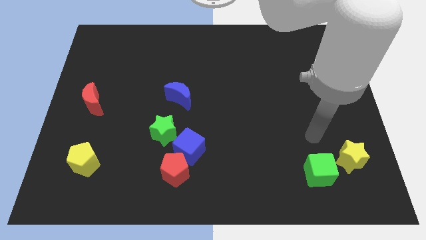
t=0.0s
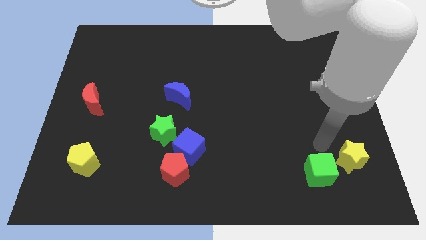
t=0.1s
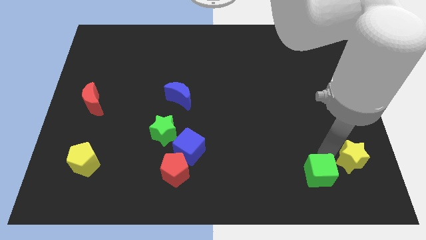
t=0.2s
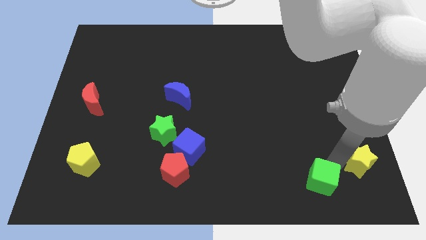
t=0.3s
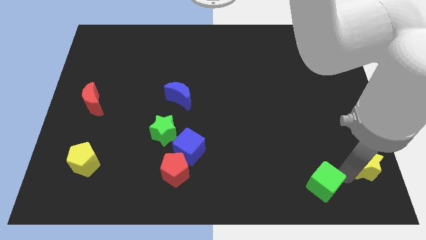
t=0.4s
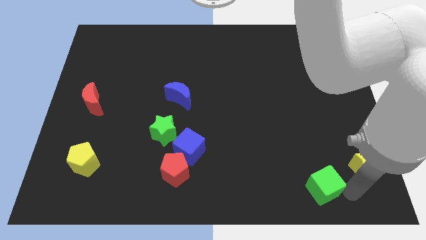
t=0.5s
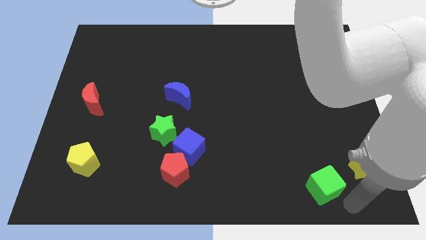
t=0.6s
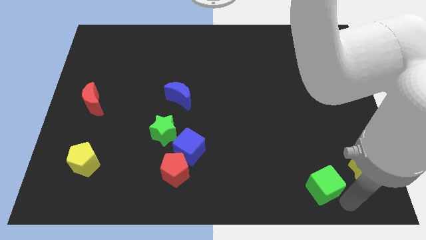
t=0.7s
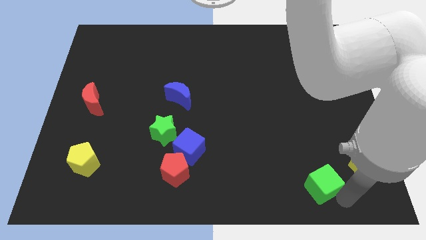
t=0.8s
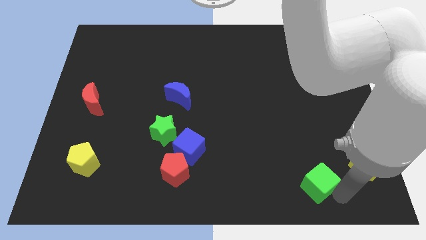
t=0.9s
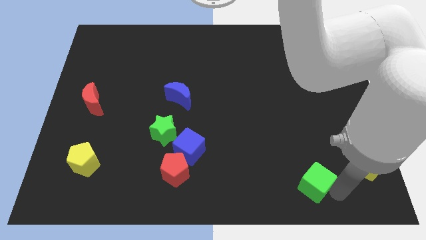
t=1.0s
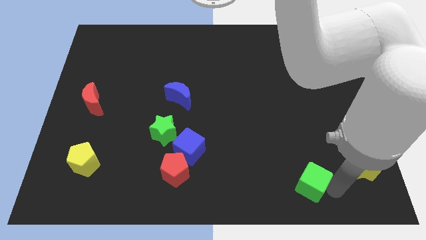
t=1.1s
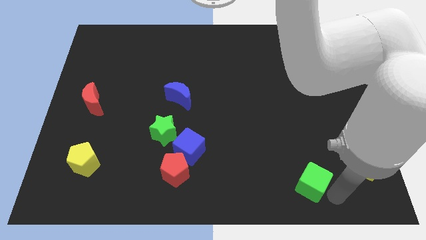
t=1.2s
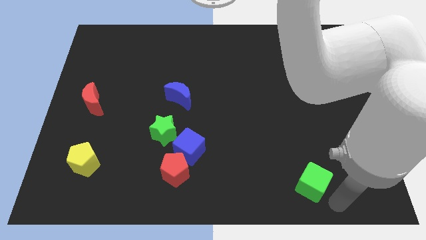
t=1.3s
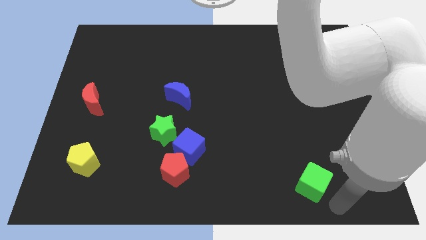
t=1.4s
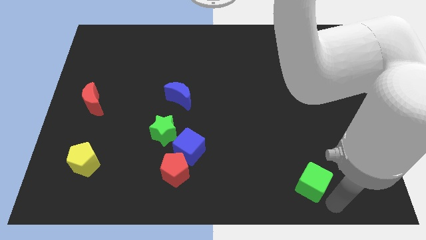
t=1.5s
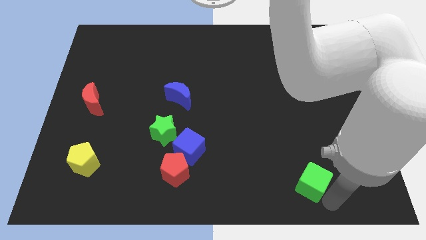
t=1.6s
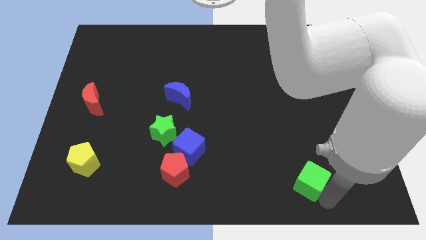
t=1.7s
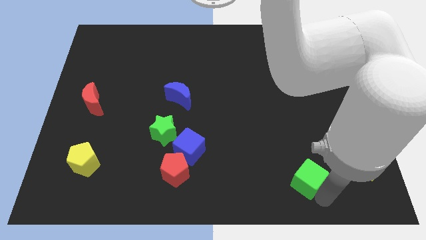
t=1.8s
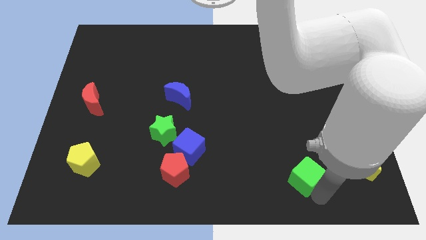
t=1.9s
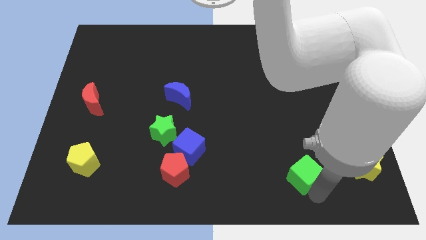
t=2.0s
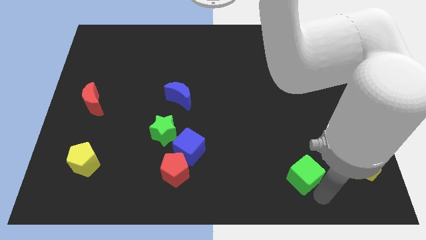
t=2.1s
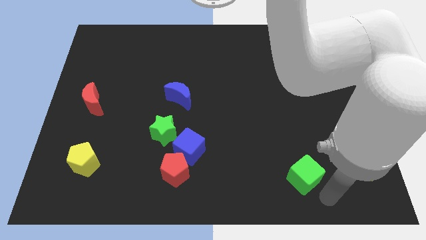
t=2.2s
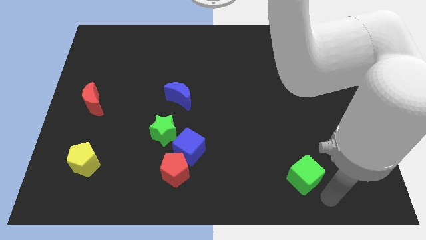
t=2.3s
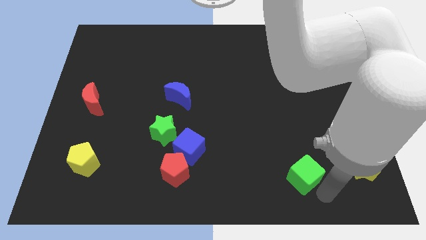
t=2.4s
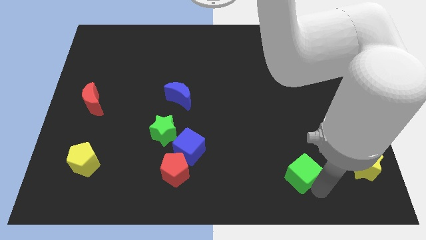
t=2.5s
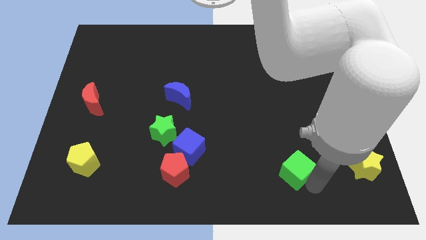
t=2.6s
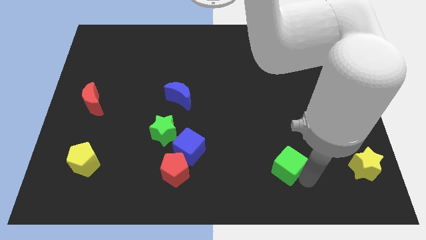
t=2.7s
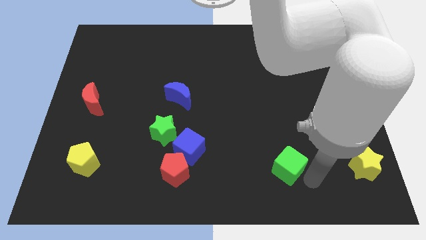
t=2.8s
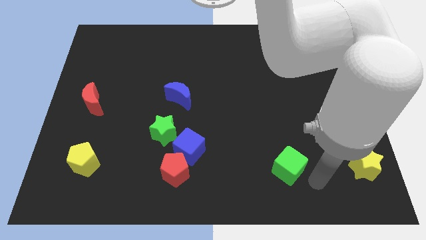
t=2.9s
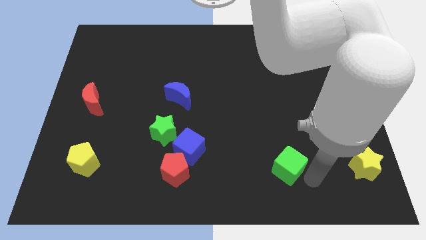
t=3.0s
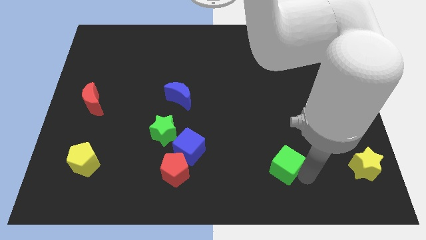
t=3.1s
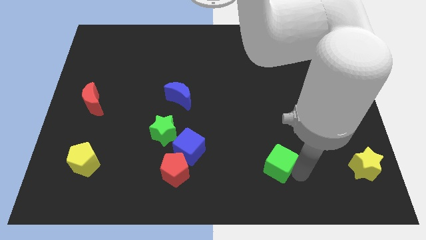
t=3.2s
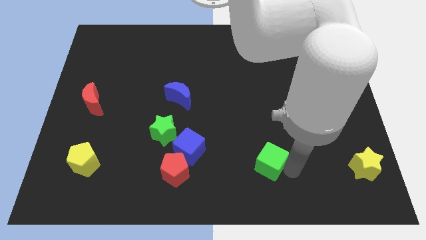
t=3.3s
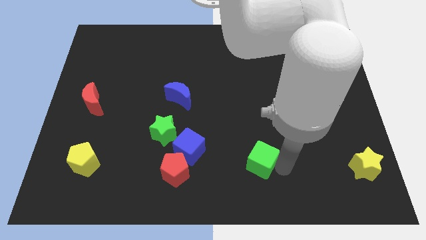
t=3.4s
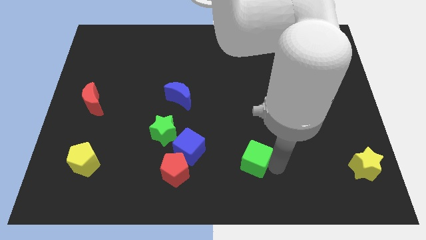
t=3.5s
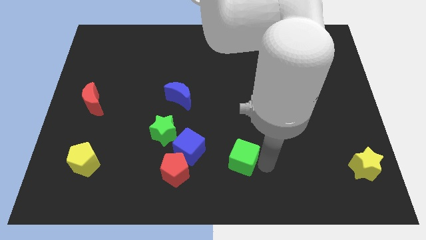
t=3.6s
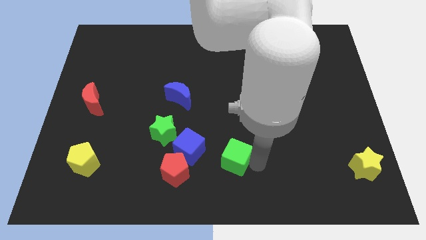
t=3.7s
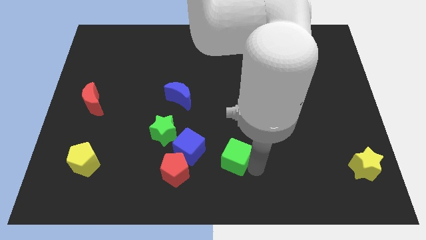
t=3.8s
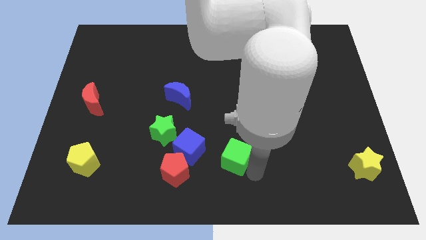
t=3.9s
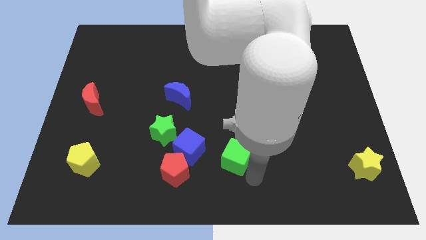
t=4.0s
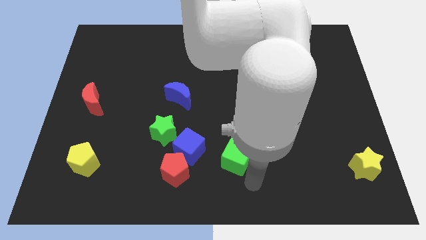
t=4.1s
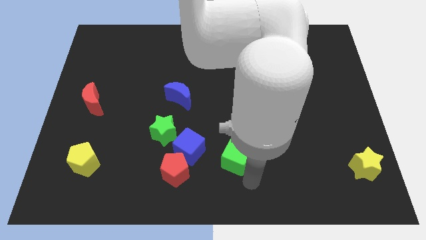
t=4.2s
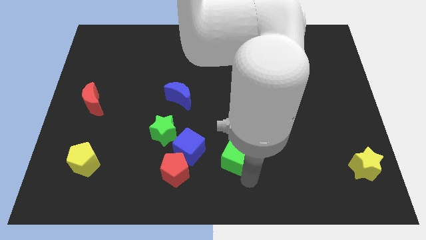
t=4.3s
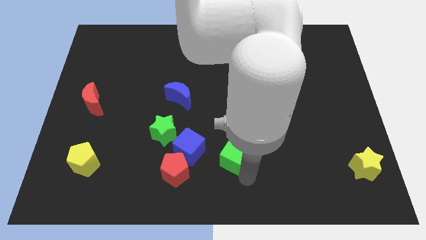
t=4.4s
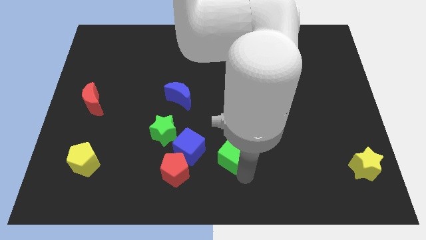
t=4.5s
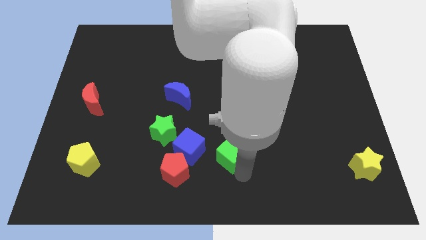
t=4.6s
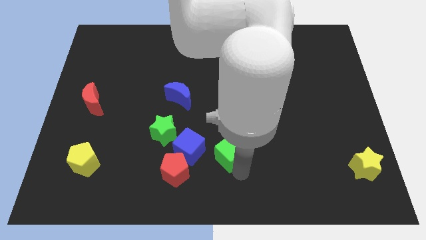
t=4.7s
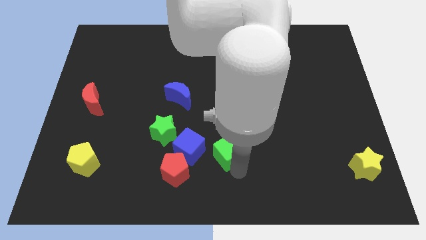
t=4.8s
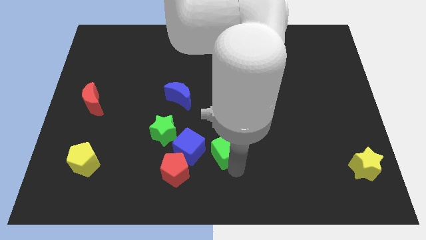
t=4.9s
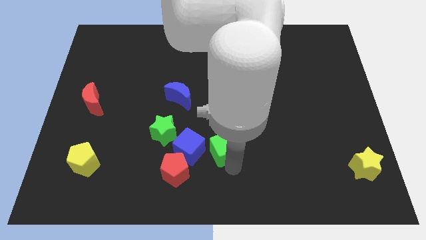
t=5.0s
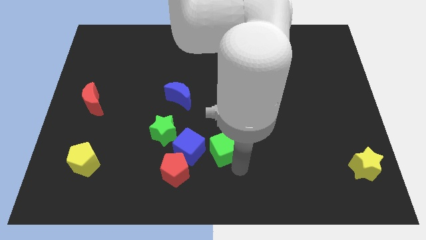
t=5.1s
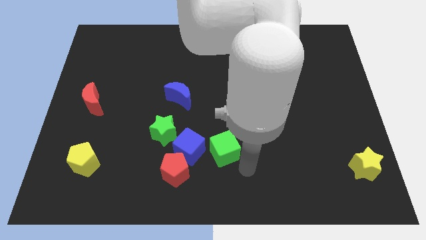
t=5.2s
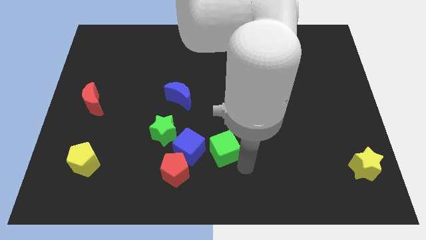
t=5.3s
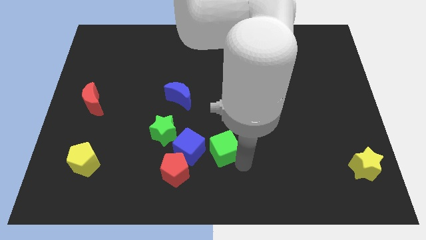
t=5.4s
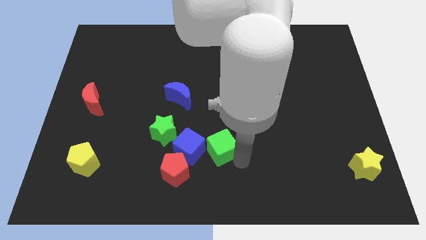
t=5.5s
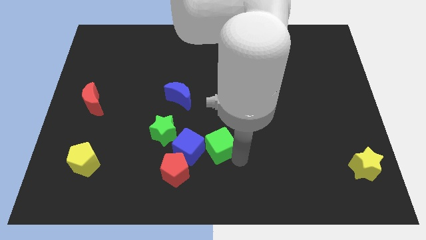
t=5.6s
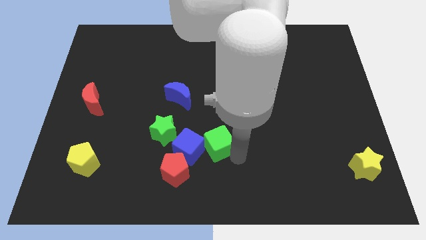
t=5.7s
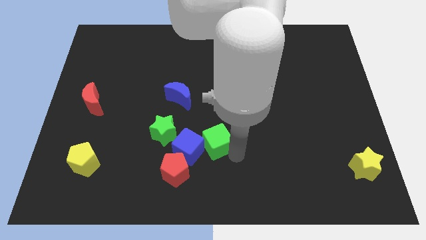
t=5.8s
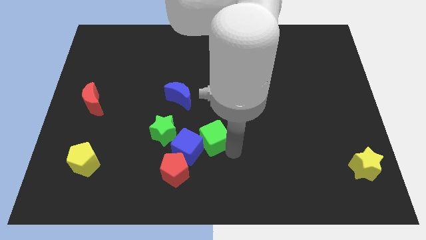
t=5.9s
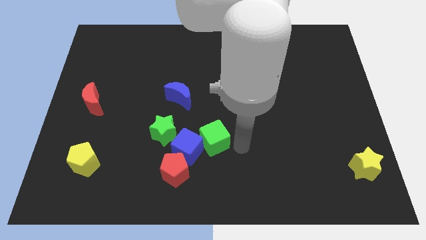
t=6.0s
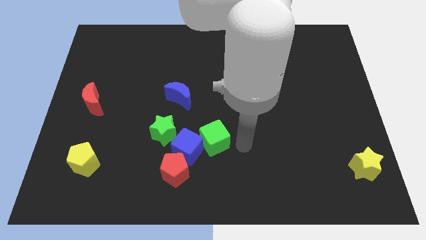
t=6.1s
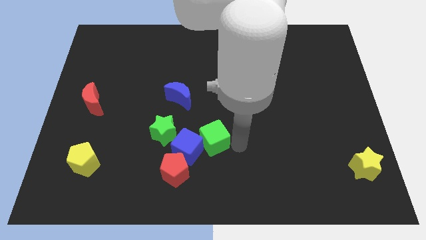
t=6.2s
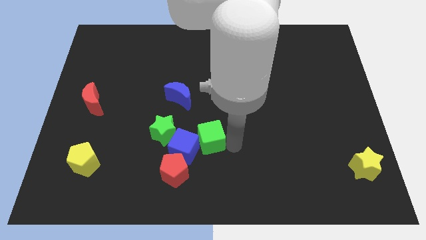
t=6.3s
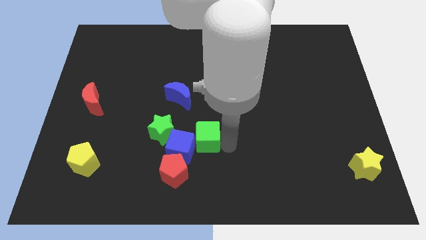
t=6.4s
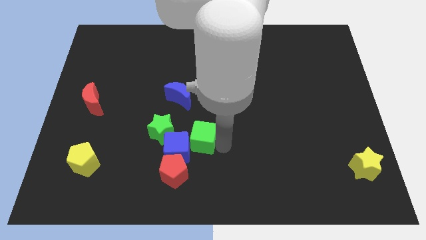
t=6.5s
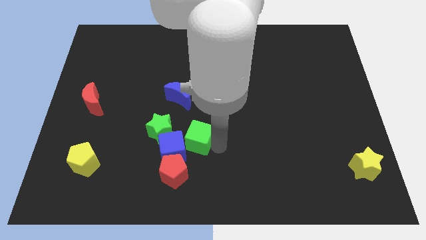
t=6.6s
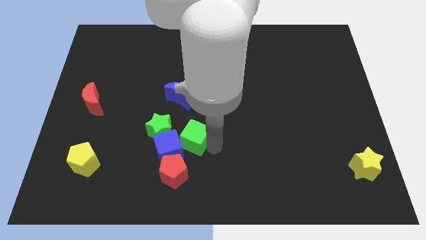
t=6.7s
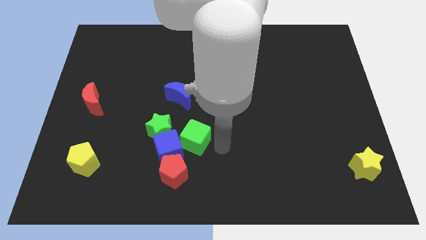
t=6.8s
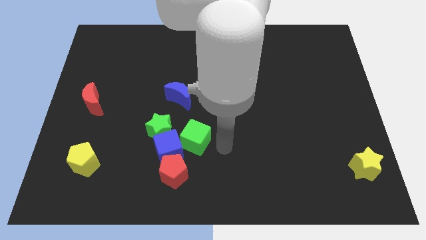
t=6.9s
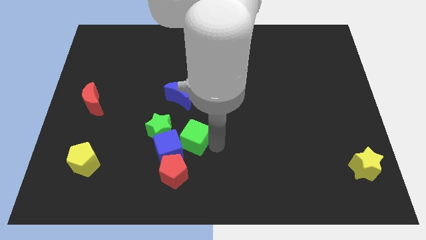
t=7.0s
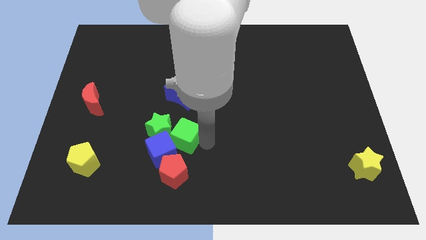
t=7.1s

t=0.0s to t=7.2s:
move the green cube towards the green star

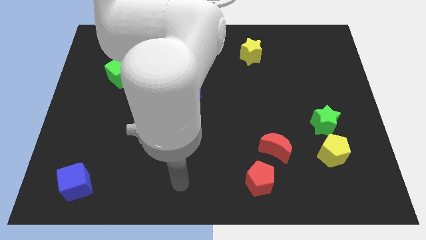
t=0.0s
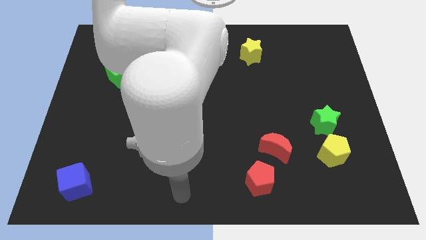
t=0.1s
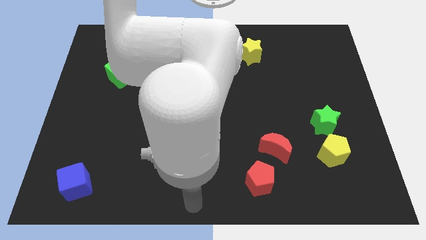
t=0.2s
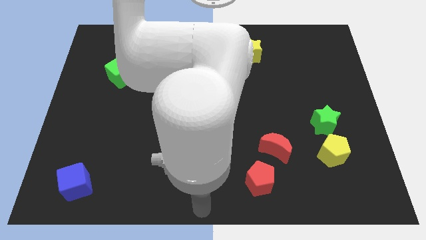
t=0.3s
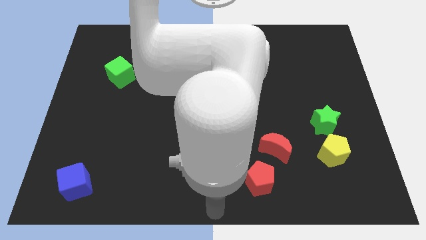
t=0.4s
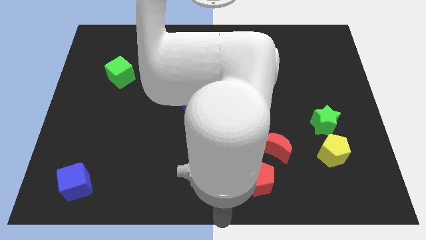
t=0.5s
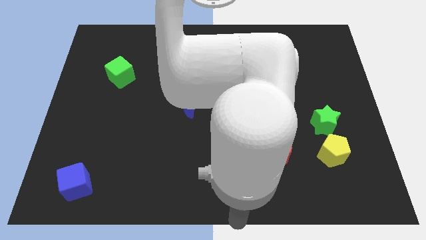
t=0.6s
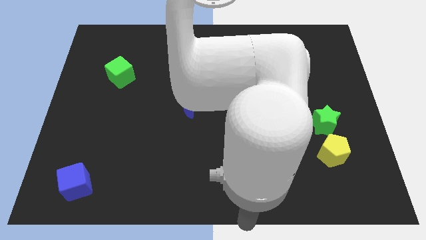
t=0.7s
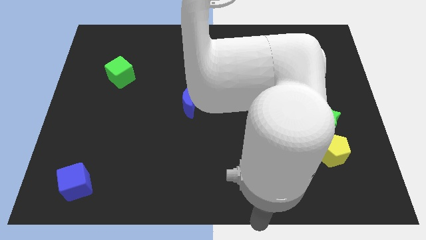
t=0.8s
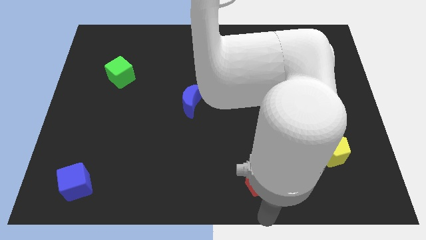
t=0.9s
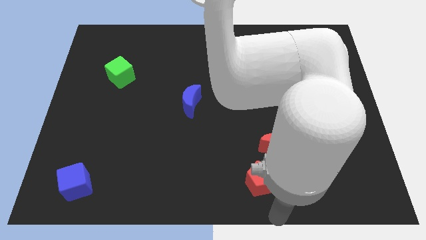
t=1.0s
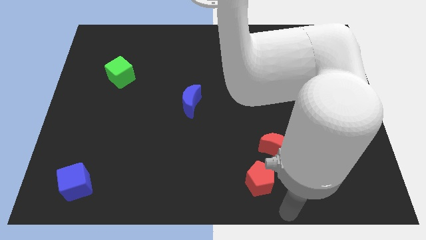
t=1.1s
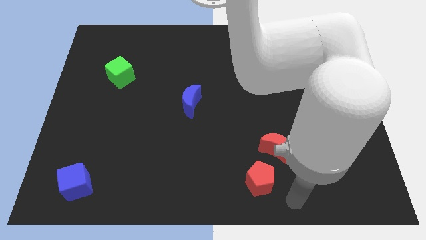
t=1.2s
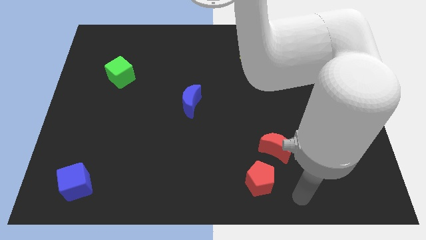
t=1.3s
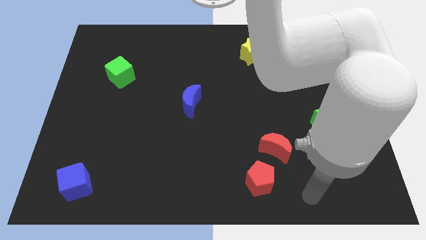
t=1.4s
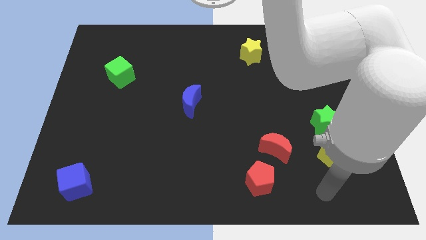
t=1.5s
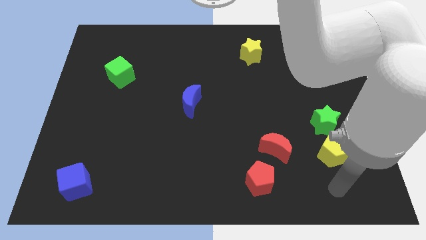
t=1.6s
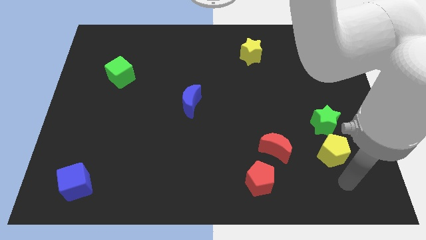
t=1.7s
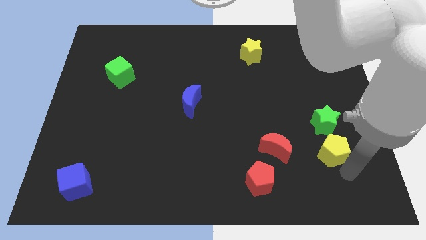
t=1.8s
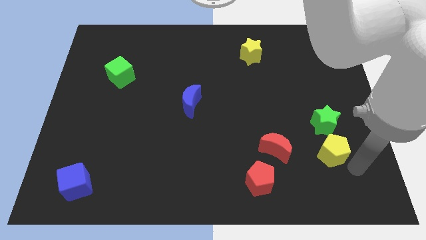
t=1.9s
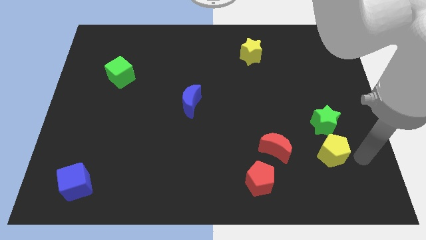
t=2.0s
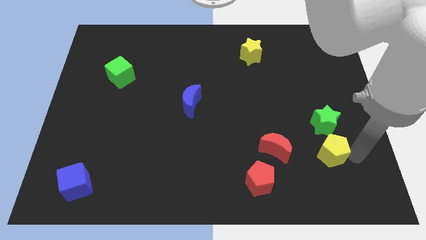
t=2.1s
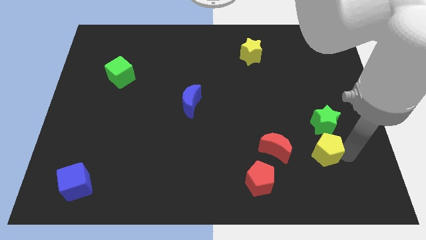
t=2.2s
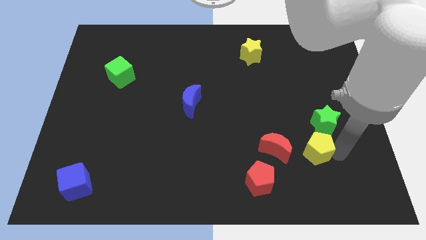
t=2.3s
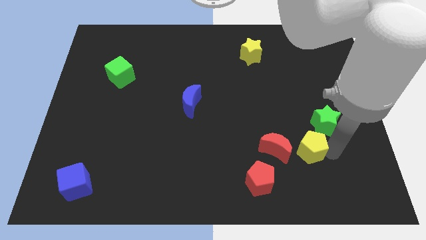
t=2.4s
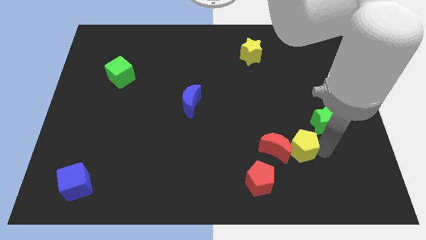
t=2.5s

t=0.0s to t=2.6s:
move the yellow pentagon next to the red moon
